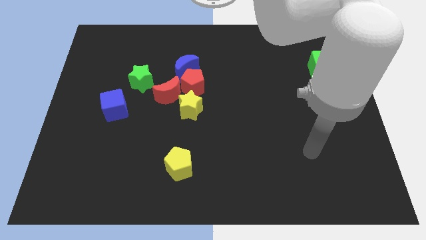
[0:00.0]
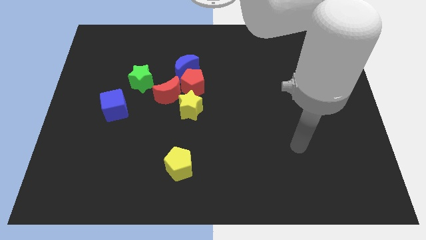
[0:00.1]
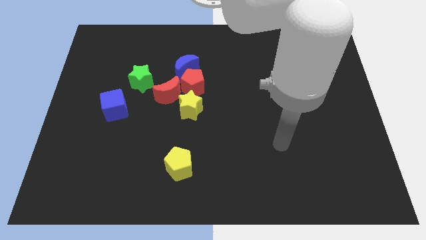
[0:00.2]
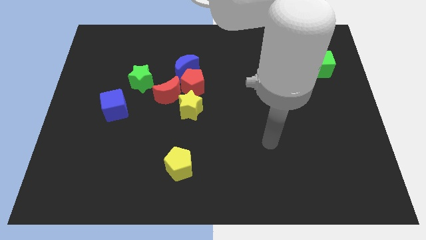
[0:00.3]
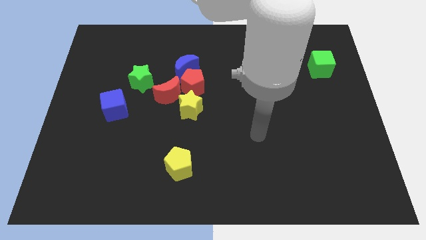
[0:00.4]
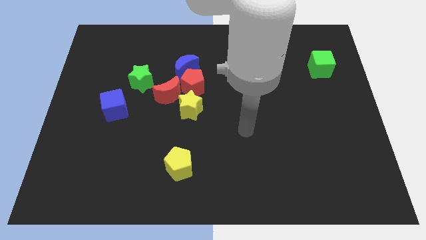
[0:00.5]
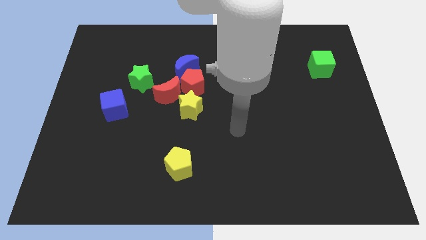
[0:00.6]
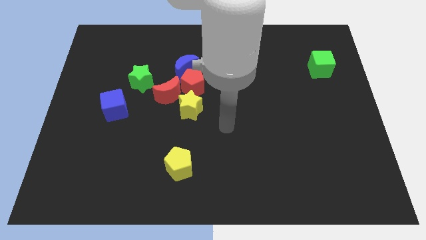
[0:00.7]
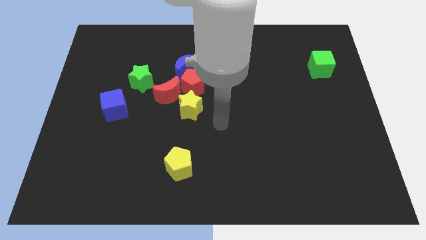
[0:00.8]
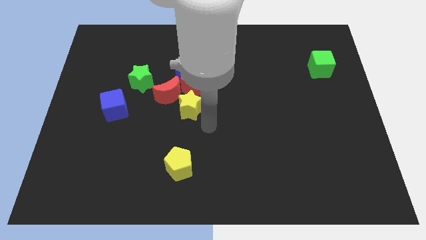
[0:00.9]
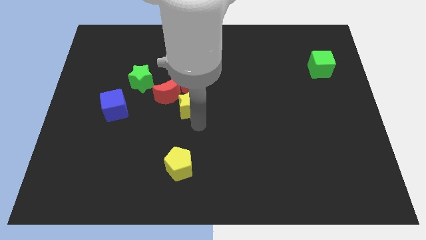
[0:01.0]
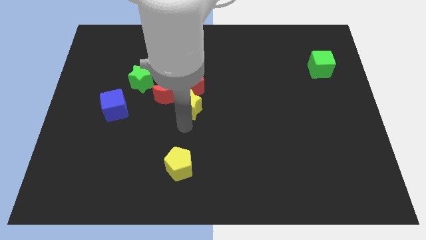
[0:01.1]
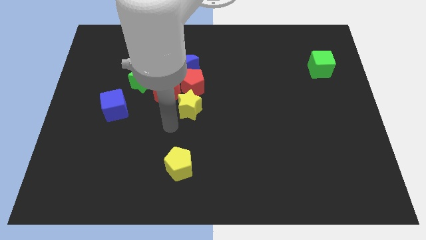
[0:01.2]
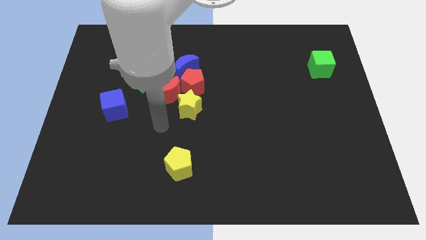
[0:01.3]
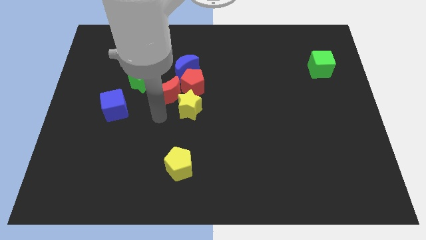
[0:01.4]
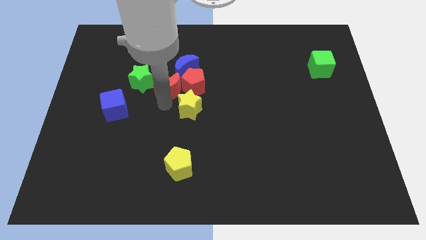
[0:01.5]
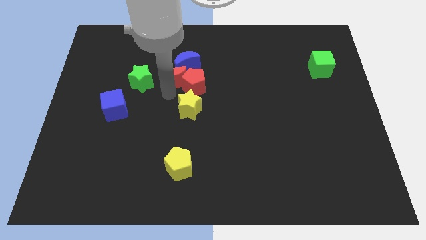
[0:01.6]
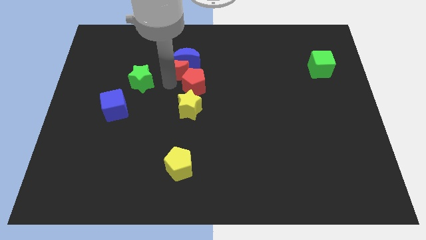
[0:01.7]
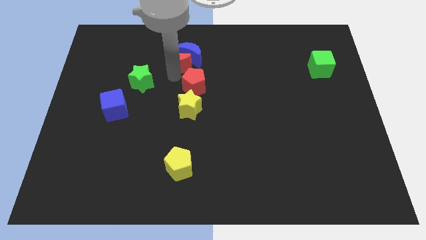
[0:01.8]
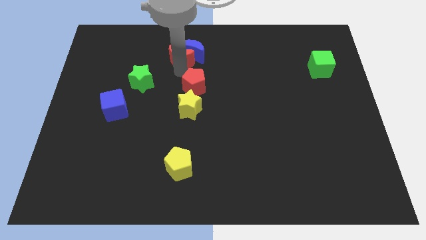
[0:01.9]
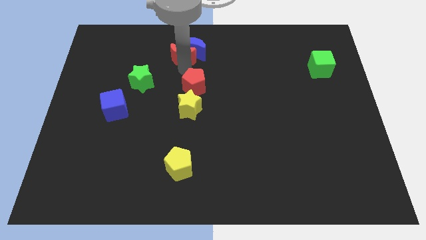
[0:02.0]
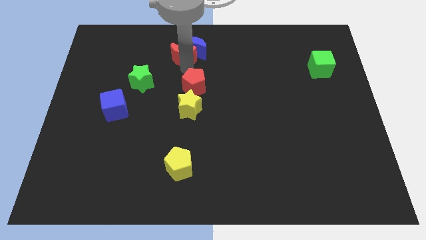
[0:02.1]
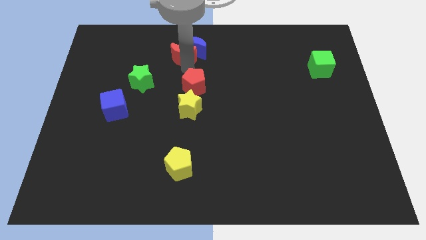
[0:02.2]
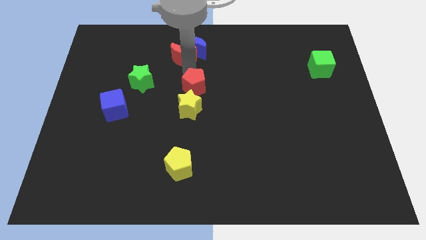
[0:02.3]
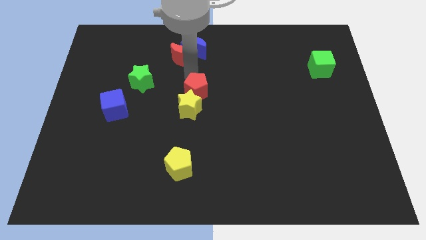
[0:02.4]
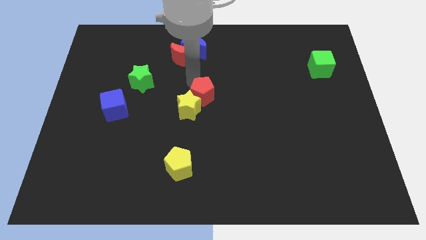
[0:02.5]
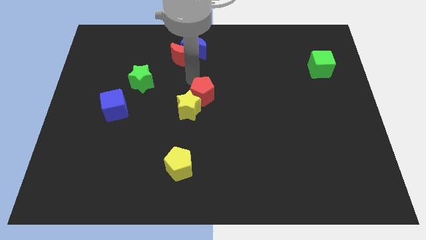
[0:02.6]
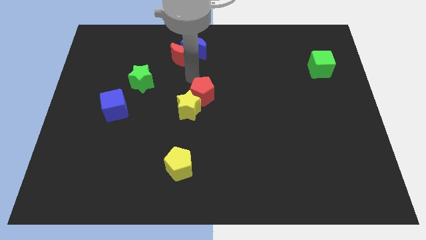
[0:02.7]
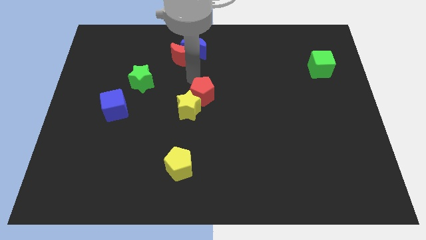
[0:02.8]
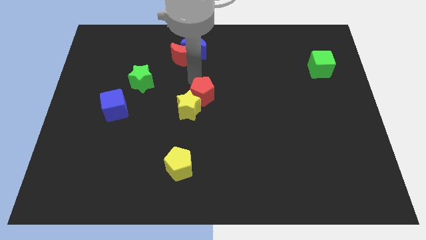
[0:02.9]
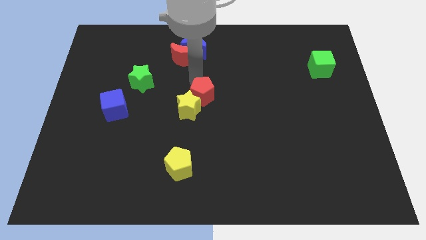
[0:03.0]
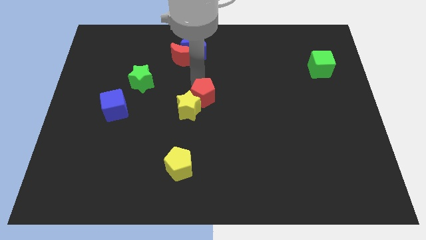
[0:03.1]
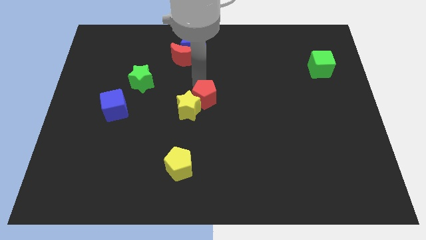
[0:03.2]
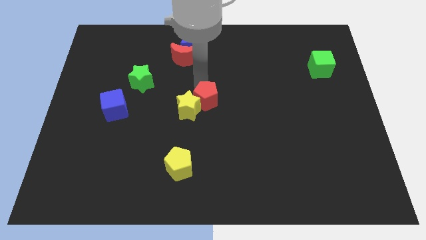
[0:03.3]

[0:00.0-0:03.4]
separate the red pentagon from the blue moon, red moon, and yellow star

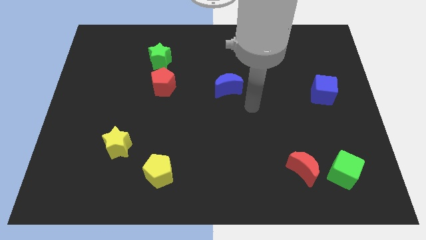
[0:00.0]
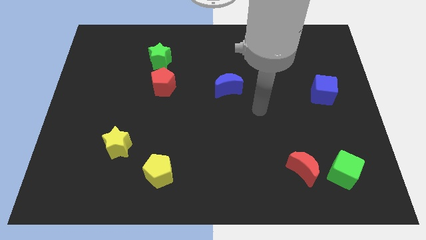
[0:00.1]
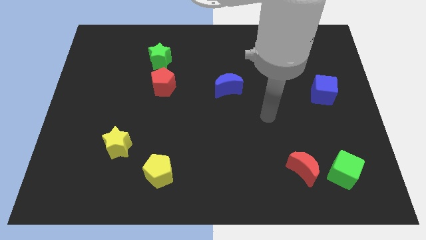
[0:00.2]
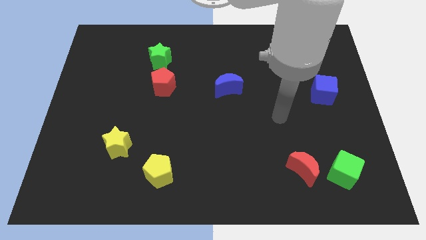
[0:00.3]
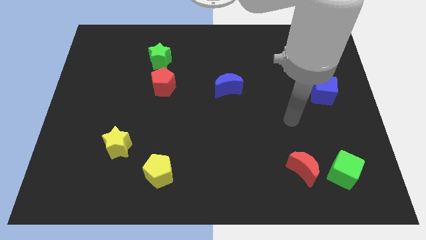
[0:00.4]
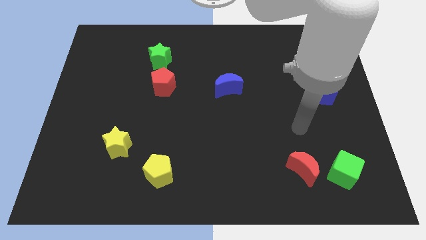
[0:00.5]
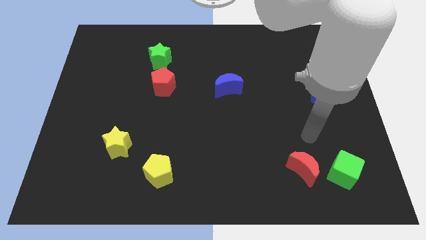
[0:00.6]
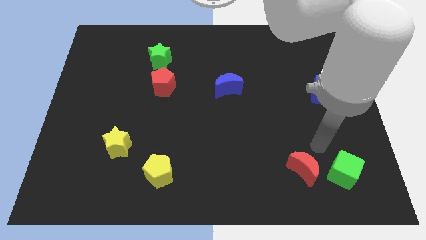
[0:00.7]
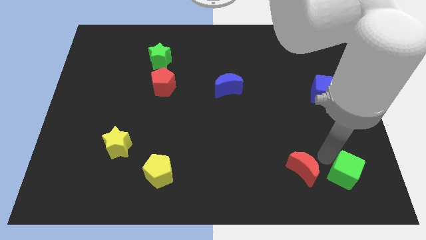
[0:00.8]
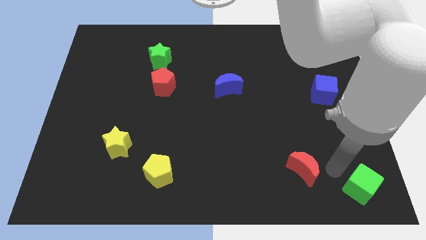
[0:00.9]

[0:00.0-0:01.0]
move the red moon away from the green cube

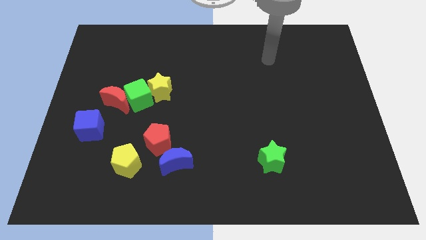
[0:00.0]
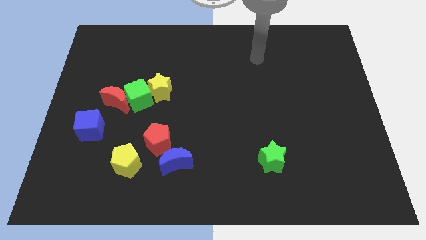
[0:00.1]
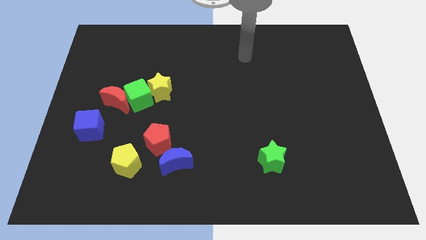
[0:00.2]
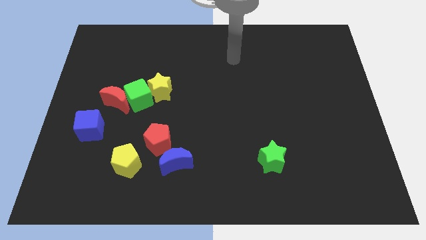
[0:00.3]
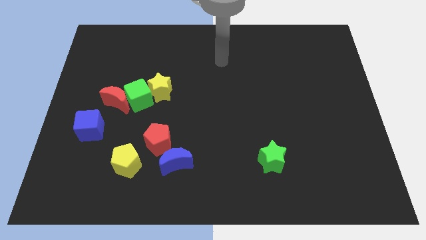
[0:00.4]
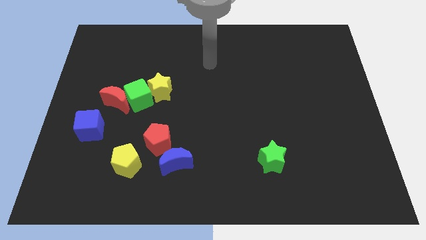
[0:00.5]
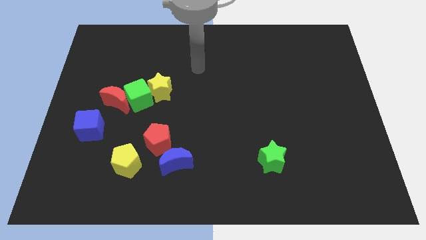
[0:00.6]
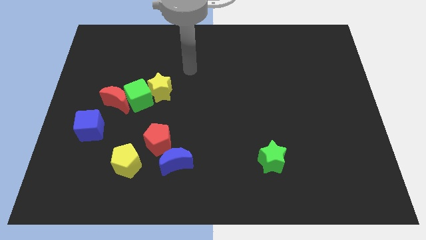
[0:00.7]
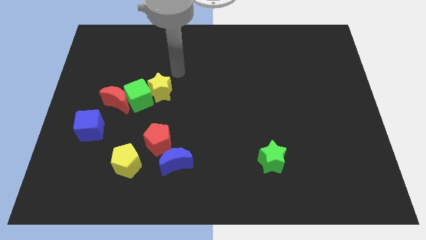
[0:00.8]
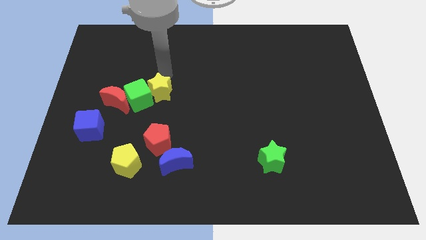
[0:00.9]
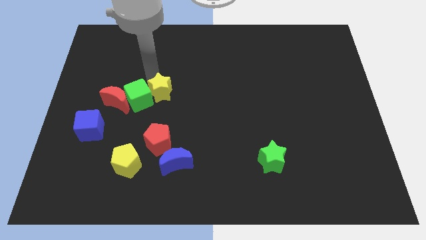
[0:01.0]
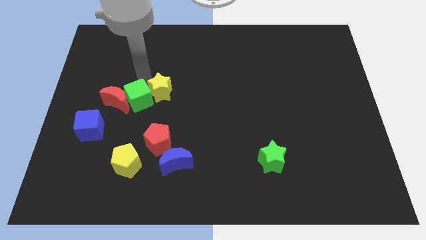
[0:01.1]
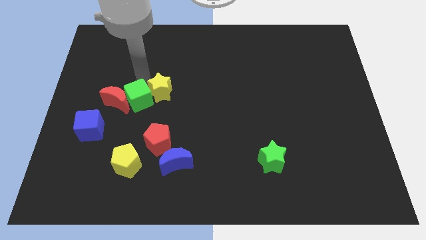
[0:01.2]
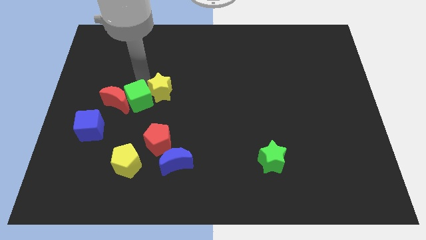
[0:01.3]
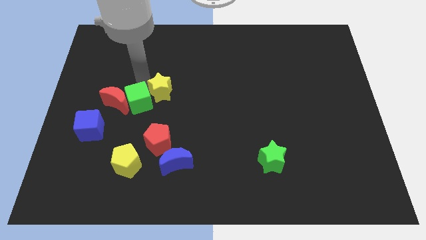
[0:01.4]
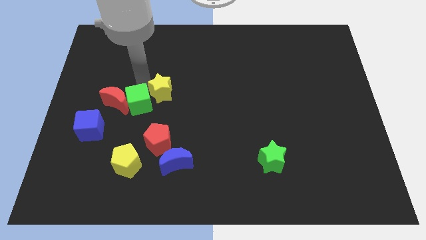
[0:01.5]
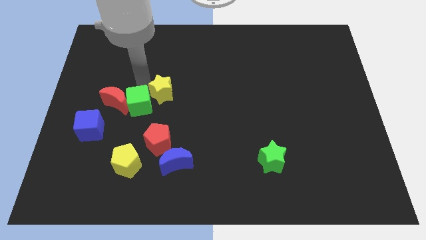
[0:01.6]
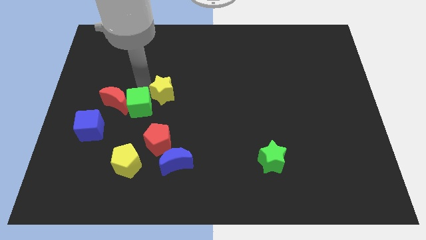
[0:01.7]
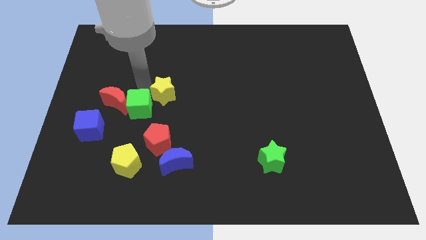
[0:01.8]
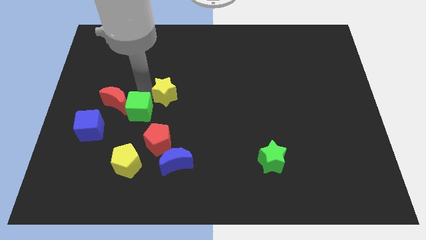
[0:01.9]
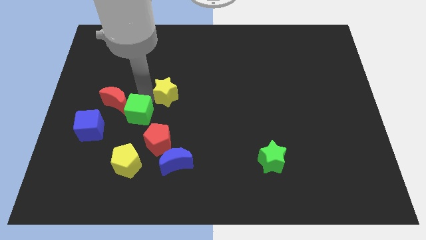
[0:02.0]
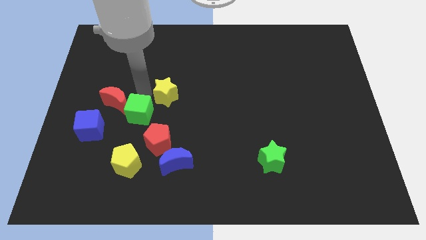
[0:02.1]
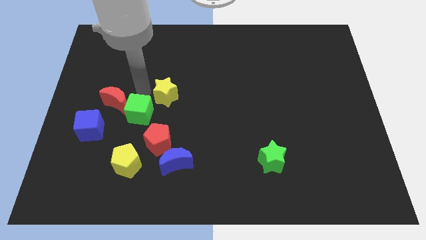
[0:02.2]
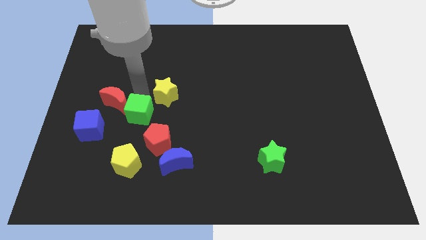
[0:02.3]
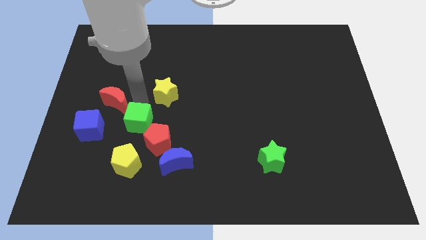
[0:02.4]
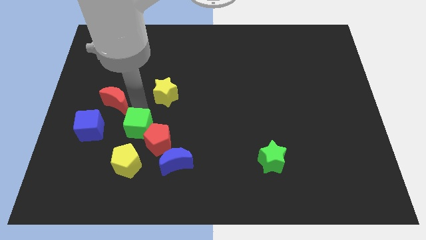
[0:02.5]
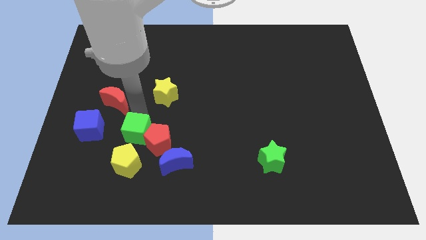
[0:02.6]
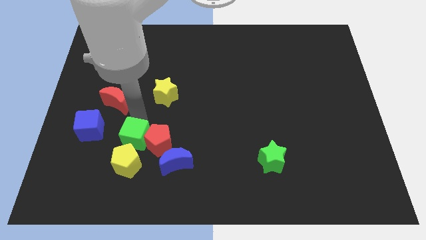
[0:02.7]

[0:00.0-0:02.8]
move the green cube away from the red moon and yellow star

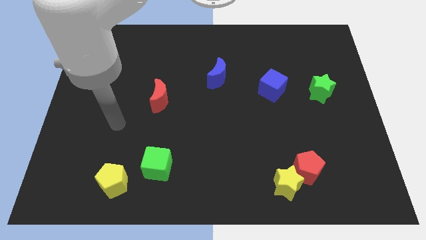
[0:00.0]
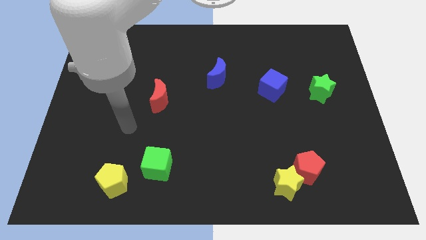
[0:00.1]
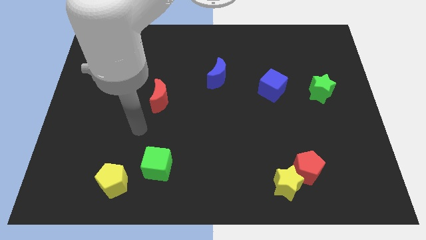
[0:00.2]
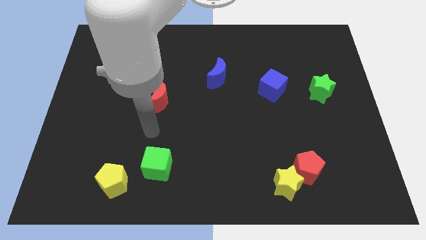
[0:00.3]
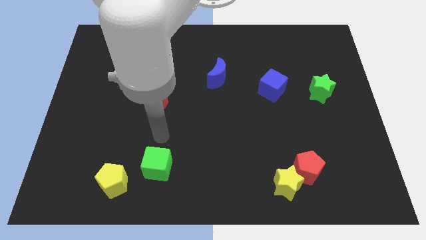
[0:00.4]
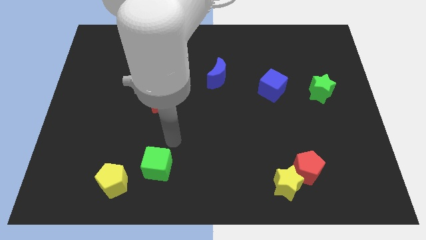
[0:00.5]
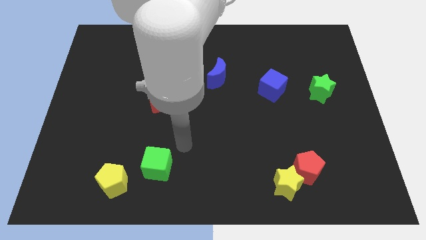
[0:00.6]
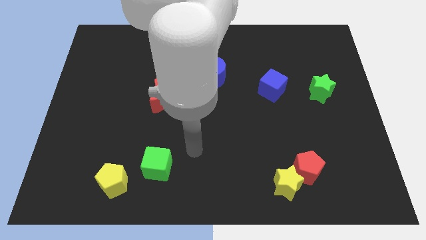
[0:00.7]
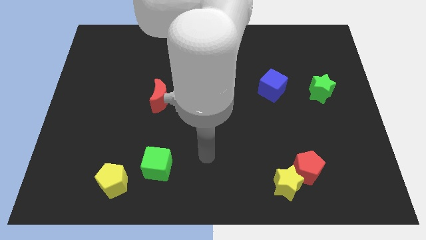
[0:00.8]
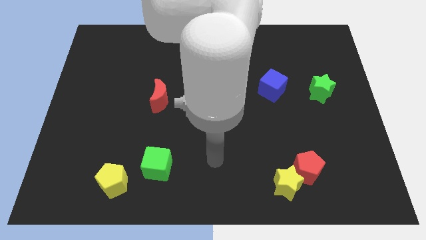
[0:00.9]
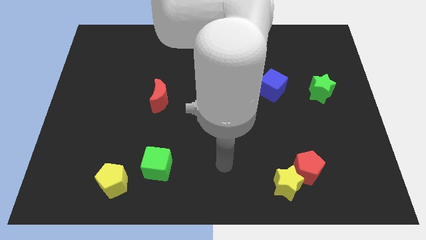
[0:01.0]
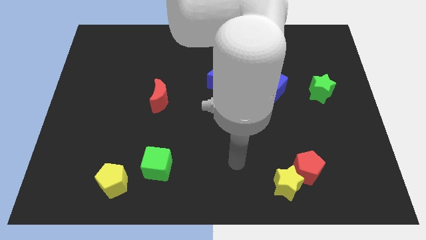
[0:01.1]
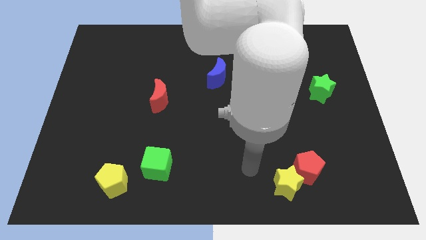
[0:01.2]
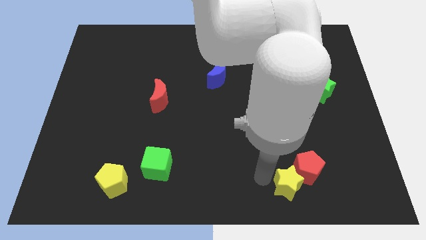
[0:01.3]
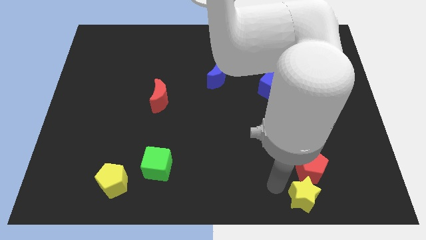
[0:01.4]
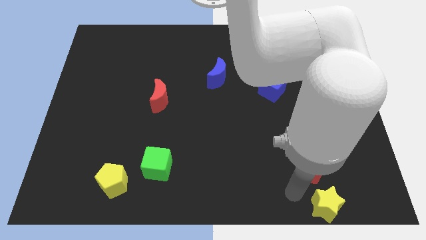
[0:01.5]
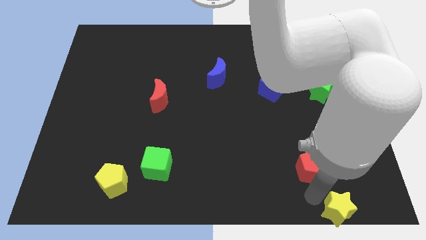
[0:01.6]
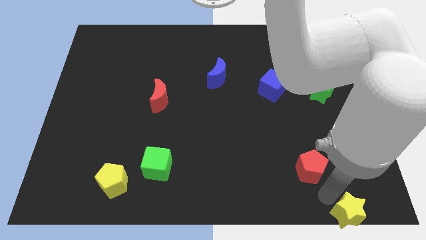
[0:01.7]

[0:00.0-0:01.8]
move the red pentagon away from the yellow star

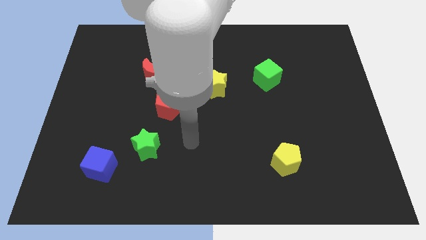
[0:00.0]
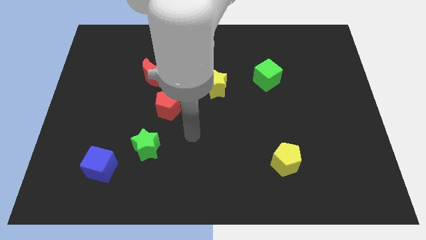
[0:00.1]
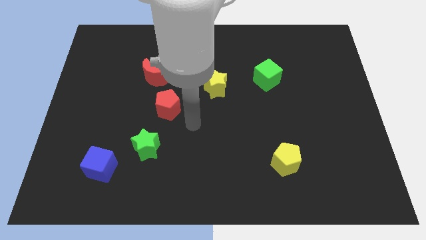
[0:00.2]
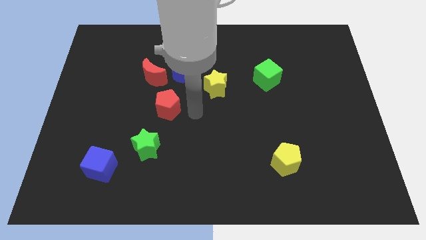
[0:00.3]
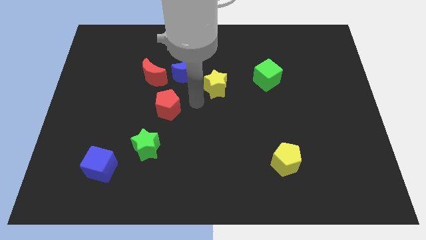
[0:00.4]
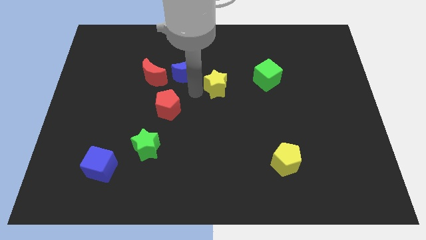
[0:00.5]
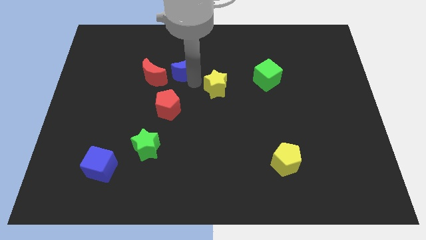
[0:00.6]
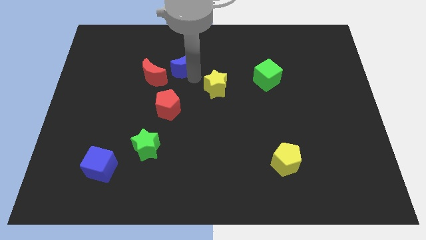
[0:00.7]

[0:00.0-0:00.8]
separate the yellow star from the blue moon
